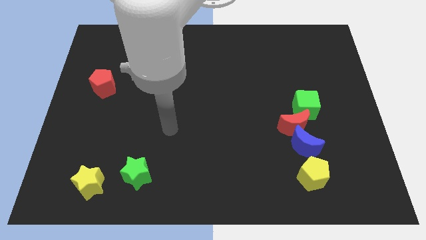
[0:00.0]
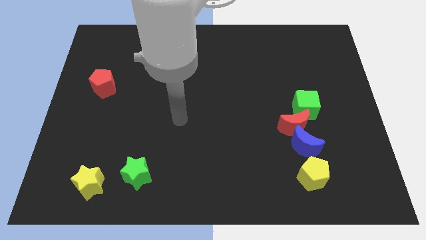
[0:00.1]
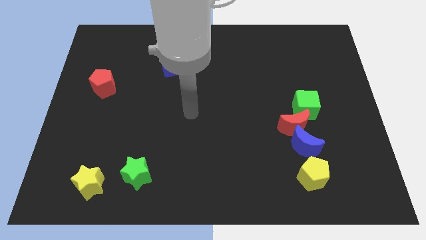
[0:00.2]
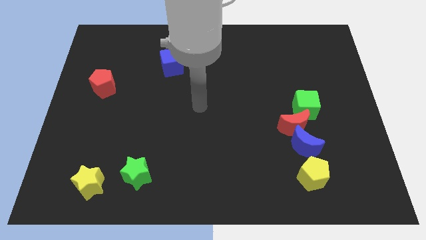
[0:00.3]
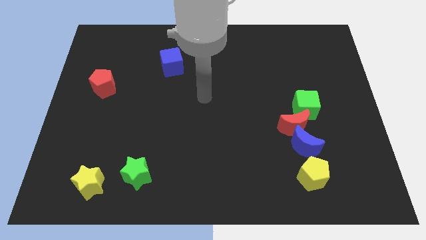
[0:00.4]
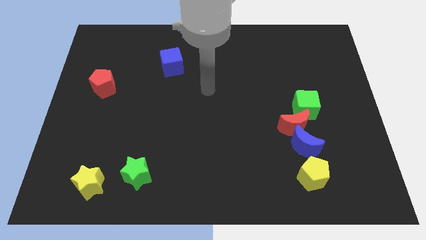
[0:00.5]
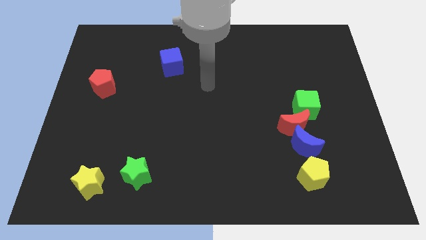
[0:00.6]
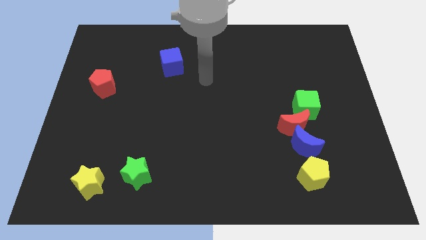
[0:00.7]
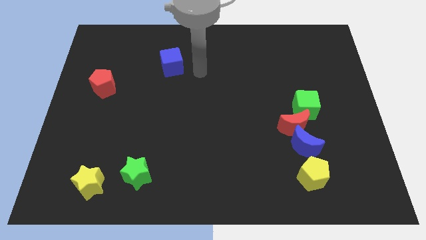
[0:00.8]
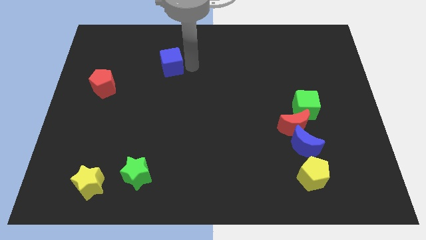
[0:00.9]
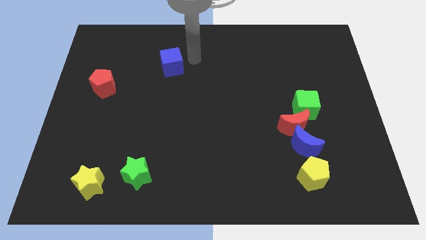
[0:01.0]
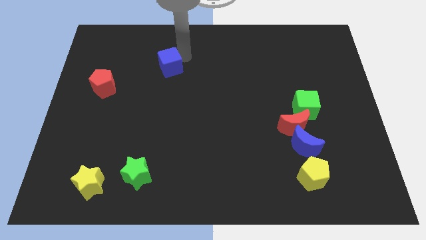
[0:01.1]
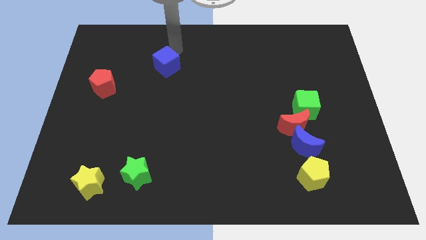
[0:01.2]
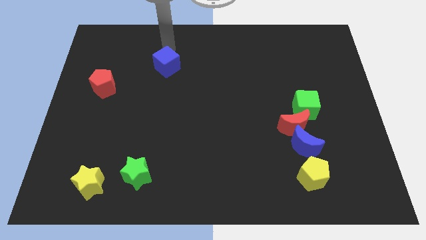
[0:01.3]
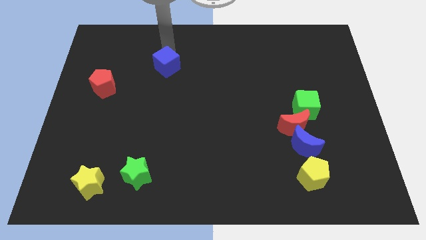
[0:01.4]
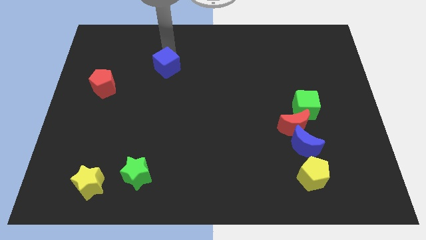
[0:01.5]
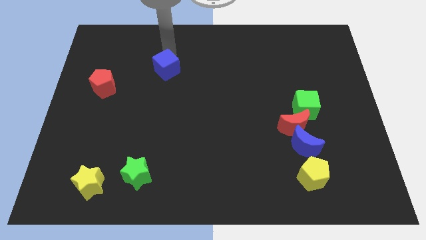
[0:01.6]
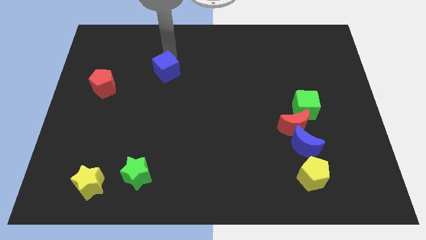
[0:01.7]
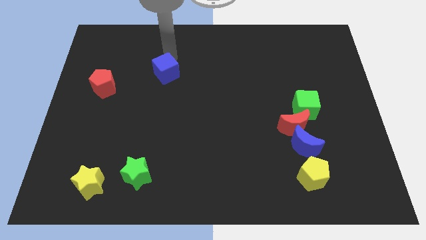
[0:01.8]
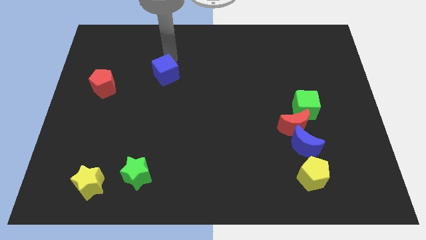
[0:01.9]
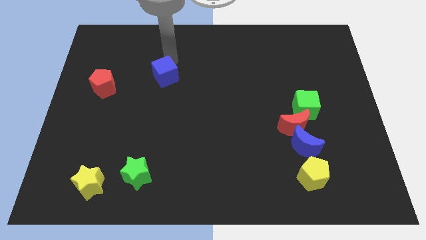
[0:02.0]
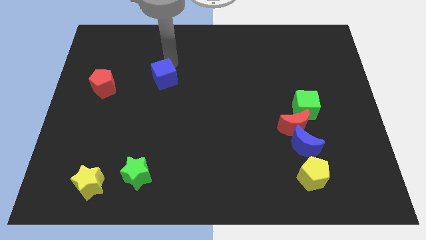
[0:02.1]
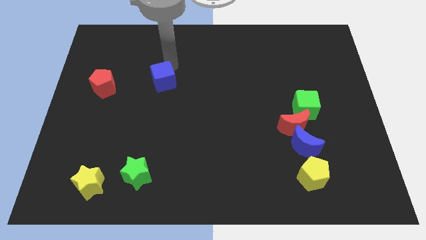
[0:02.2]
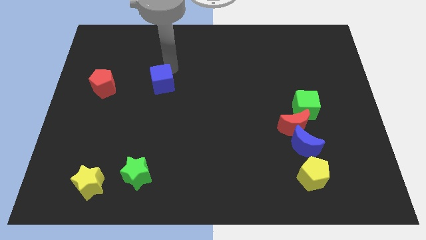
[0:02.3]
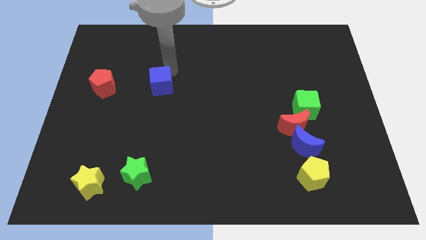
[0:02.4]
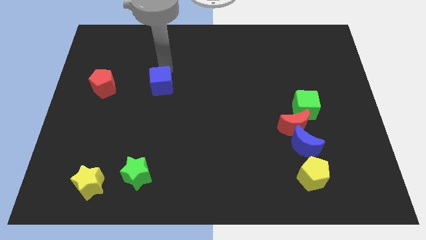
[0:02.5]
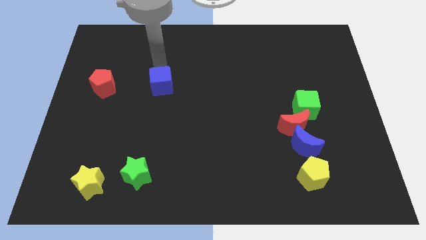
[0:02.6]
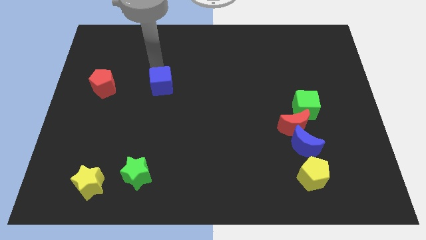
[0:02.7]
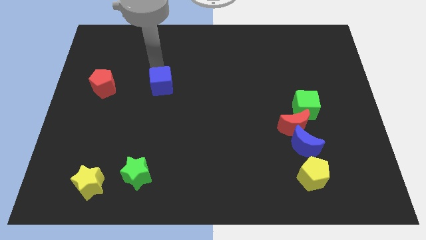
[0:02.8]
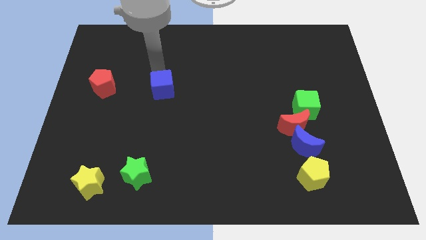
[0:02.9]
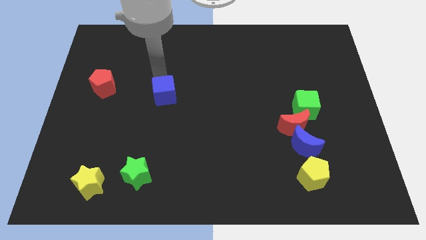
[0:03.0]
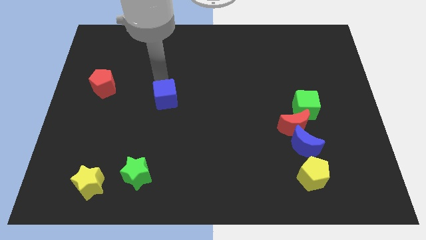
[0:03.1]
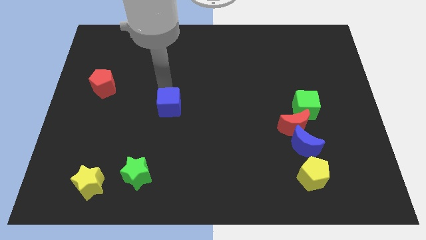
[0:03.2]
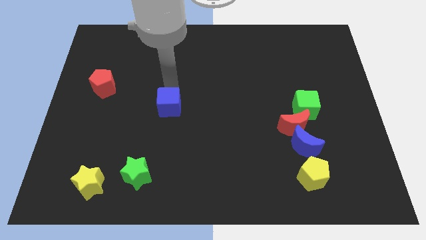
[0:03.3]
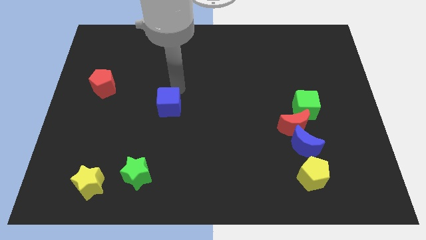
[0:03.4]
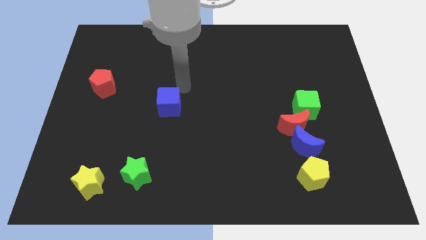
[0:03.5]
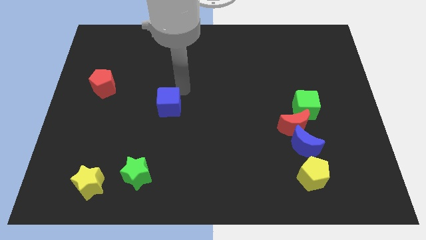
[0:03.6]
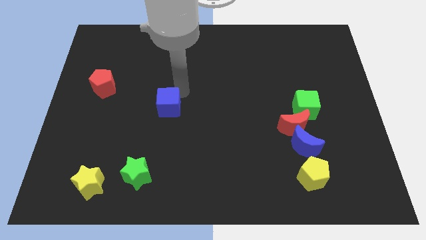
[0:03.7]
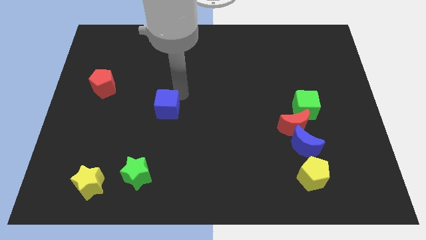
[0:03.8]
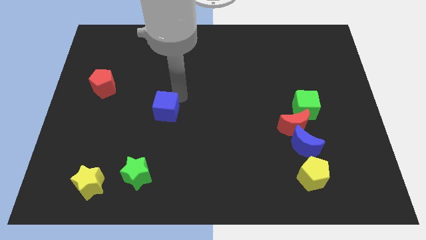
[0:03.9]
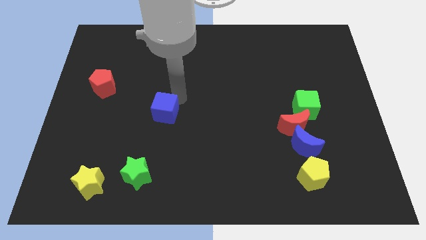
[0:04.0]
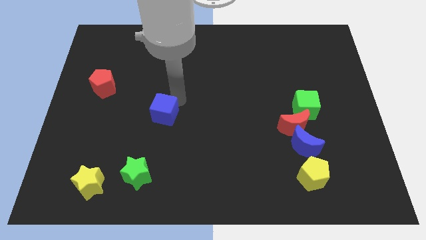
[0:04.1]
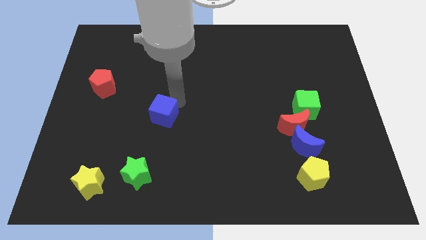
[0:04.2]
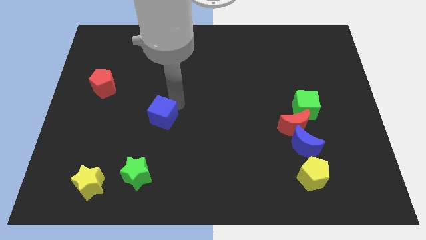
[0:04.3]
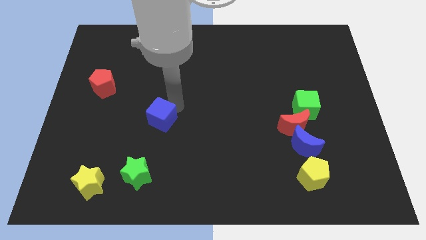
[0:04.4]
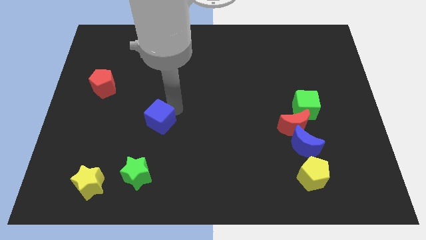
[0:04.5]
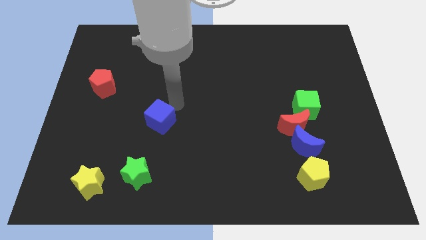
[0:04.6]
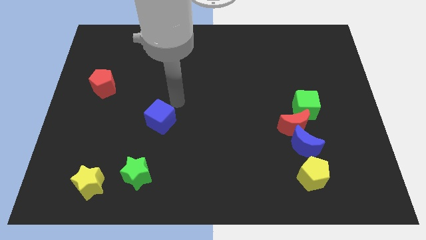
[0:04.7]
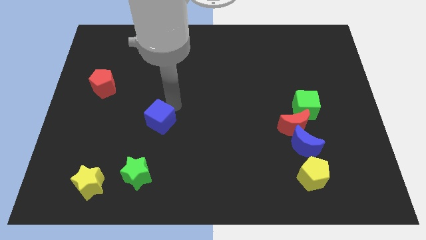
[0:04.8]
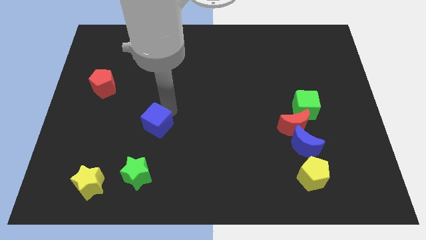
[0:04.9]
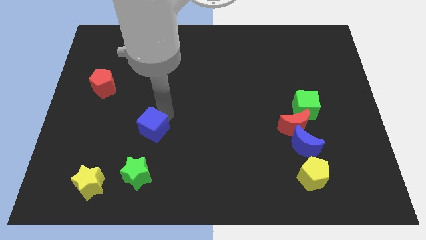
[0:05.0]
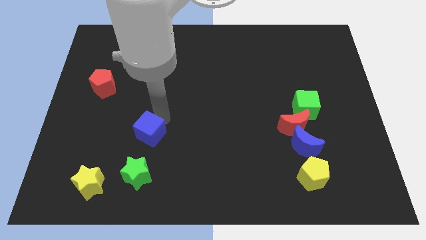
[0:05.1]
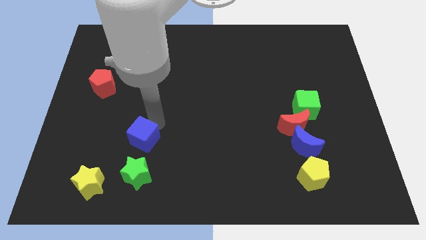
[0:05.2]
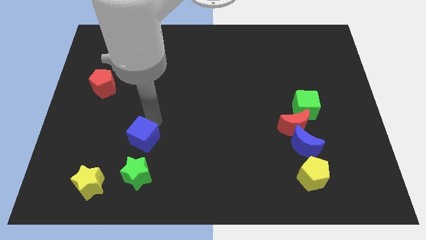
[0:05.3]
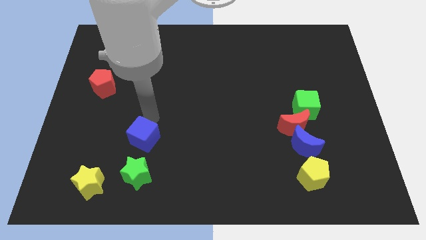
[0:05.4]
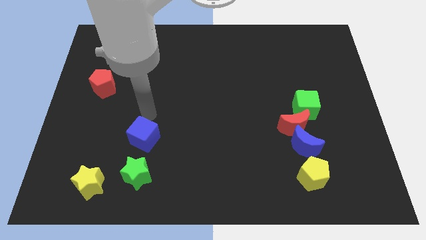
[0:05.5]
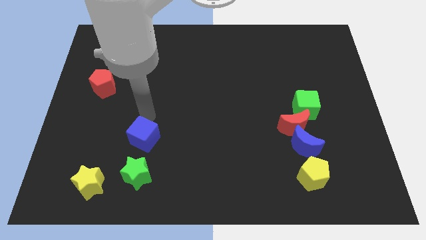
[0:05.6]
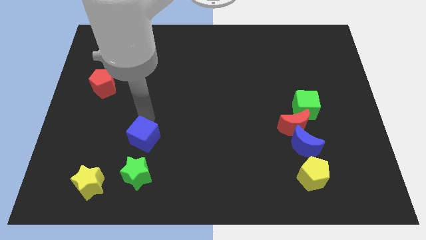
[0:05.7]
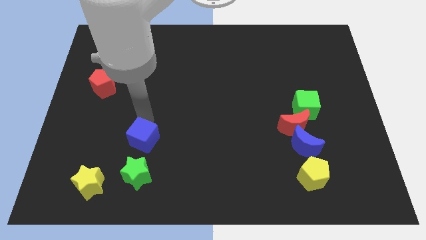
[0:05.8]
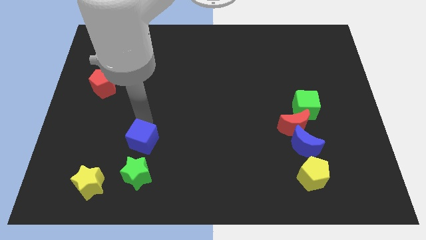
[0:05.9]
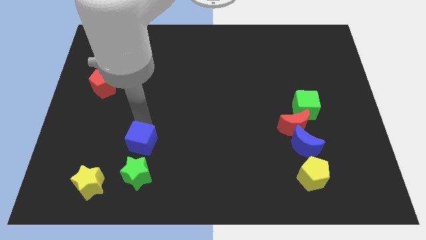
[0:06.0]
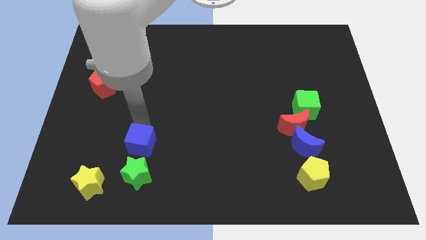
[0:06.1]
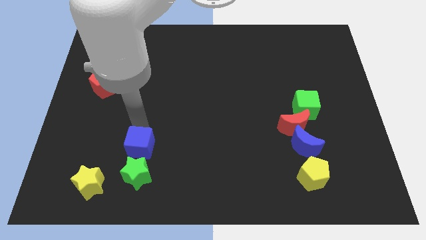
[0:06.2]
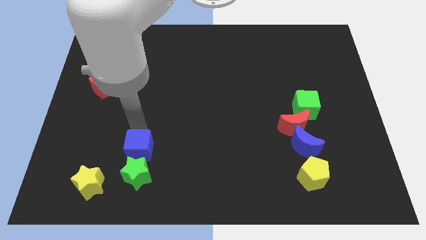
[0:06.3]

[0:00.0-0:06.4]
put the blue cube close to the green star
